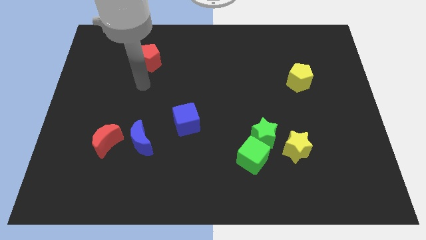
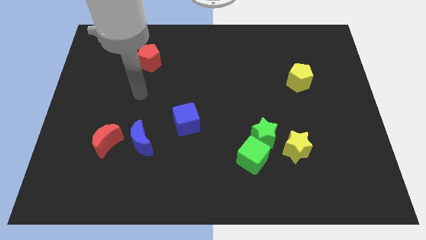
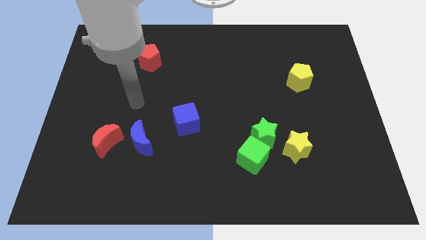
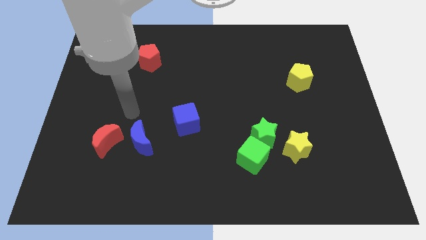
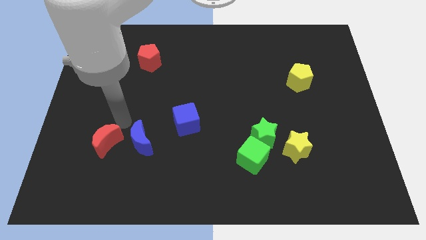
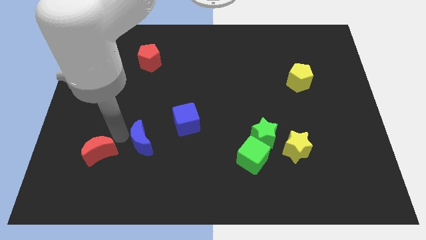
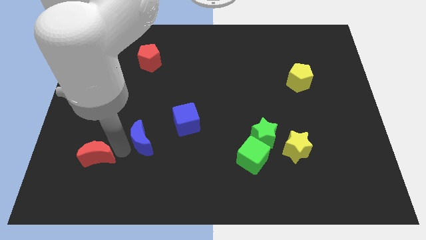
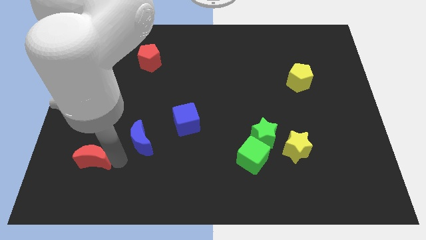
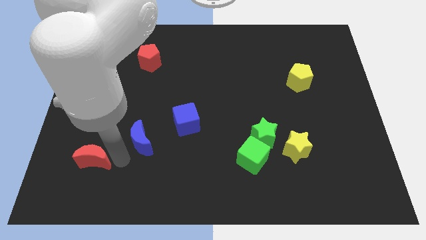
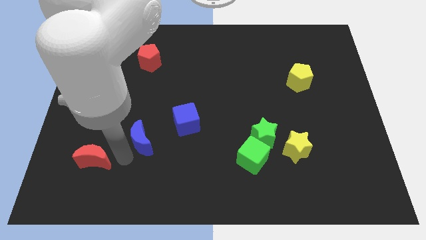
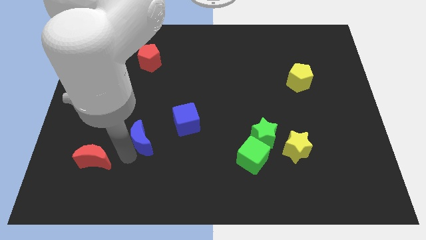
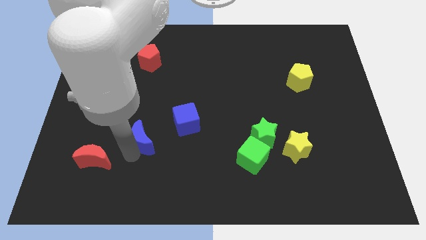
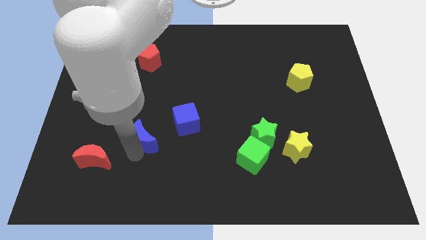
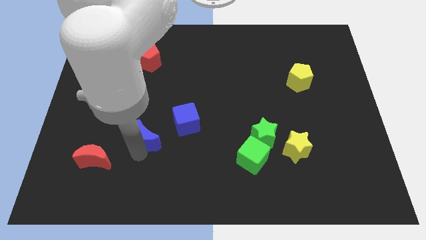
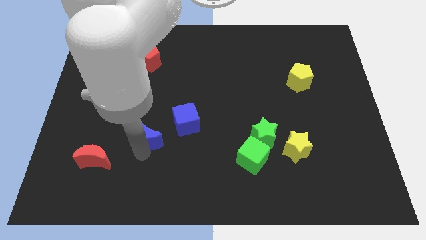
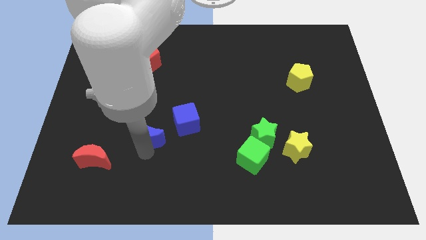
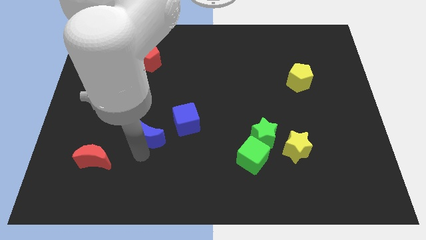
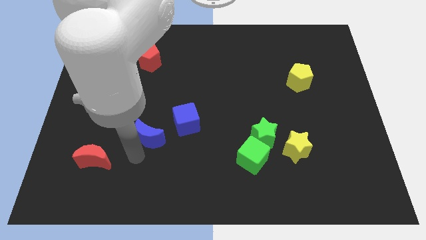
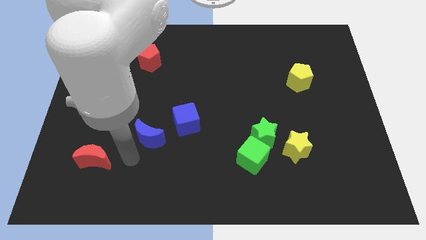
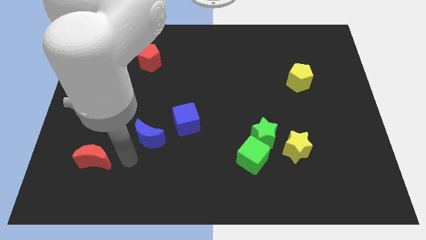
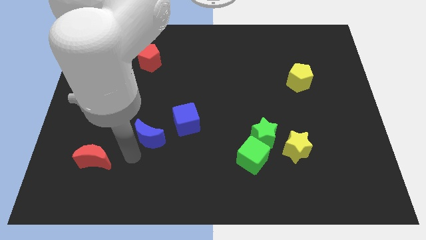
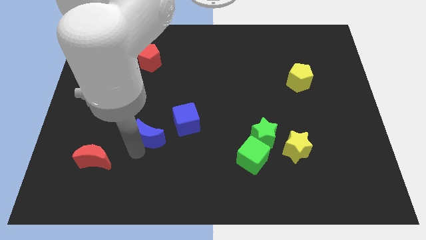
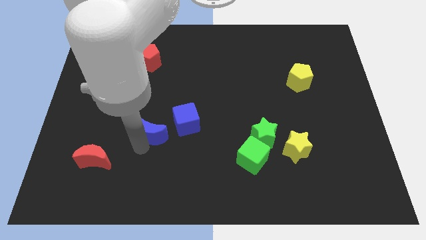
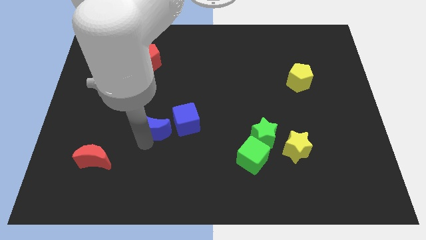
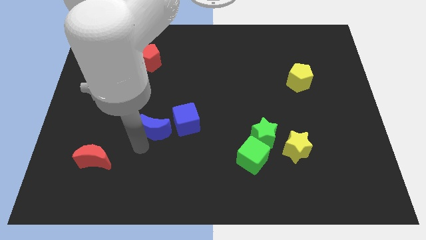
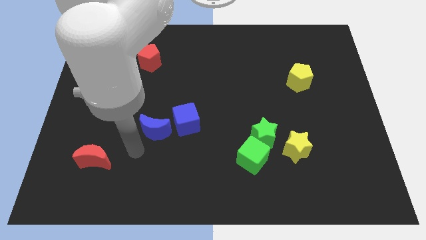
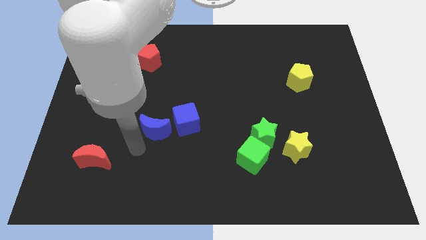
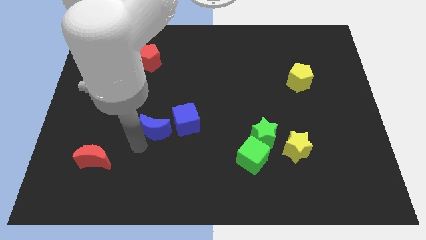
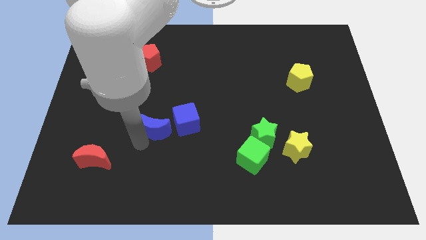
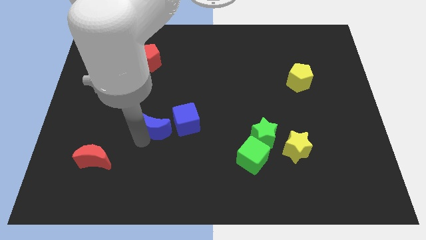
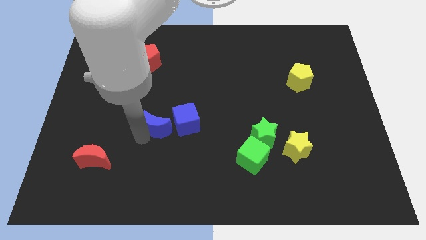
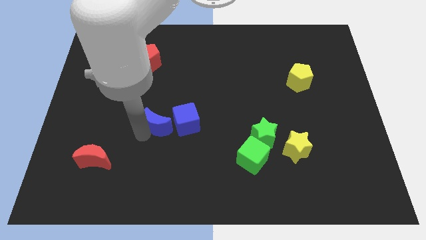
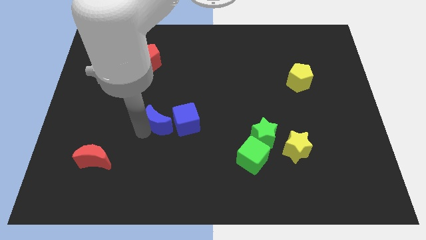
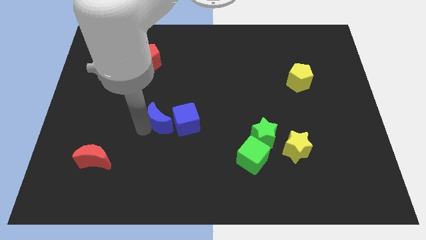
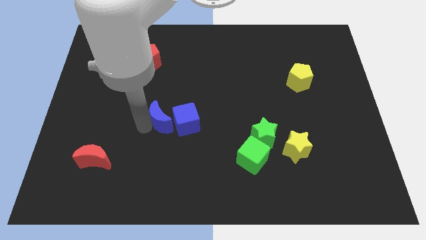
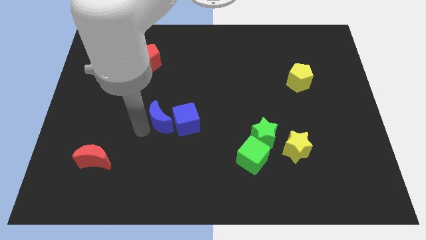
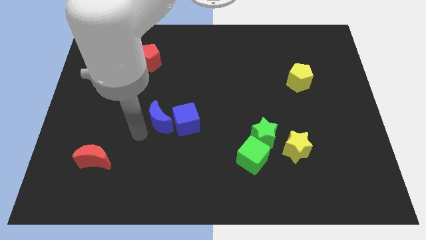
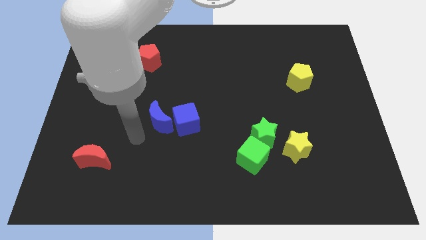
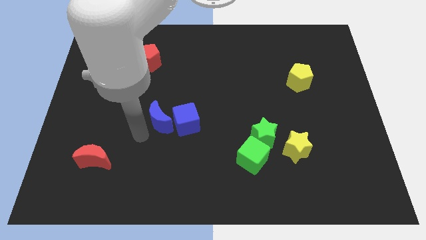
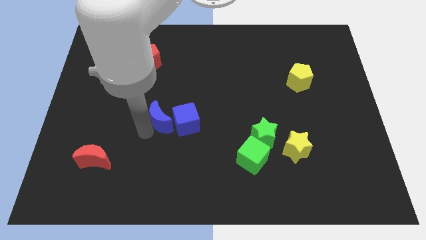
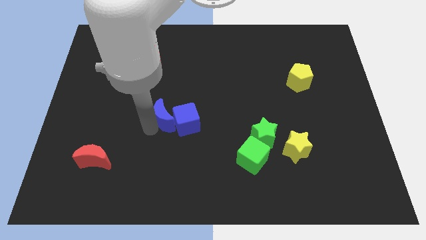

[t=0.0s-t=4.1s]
slightly slide the blue moon up and to the right diagonally

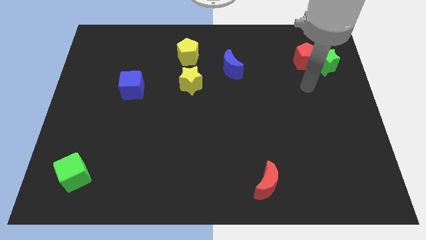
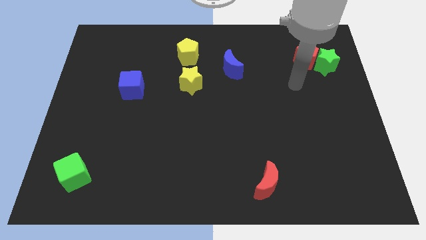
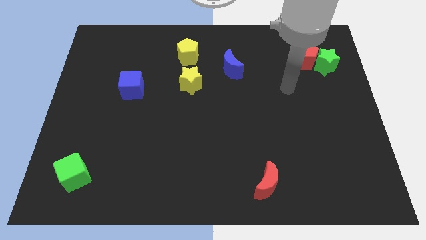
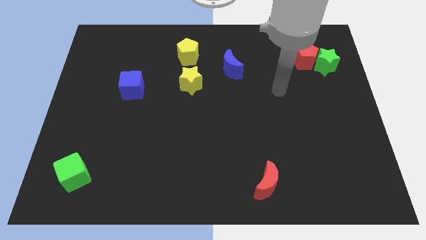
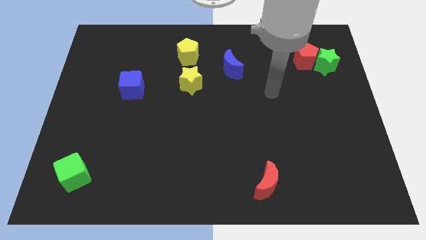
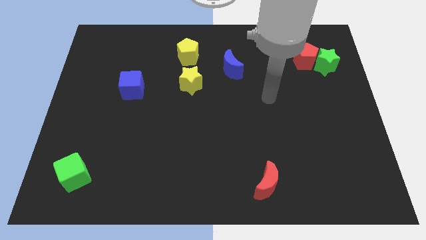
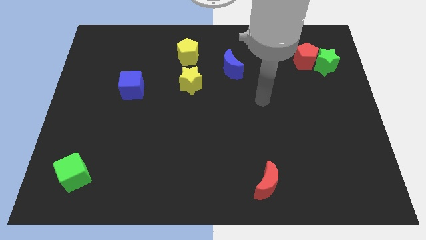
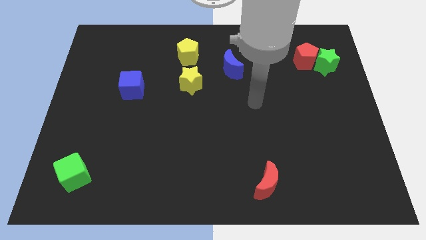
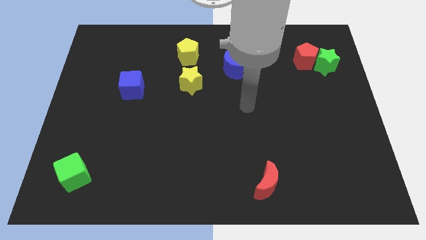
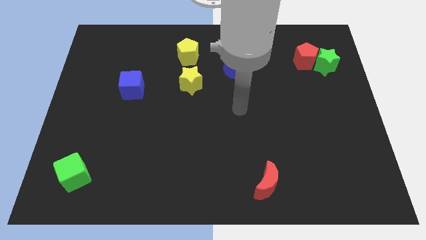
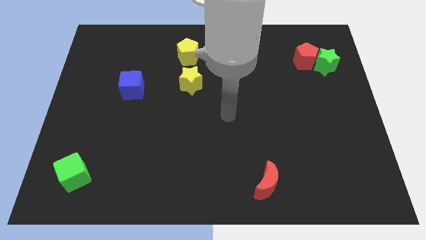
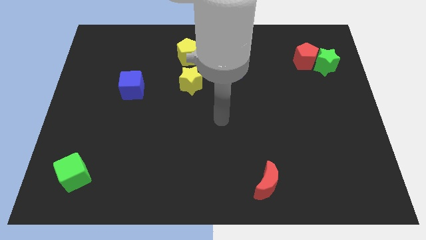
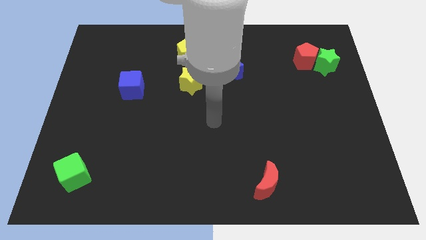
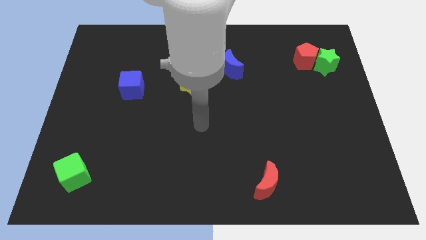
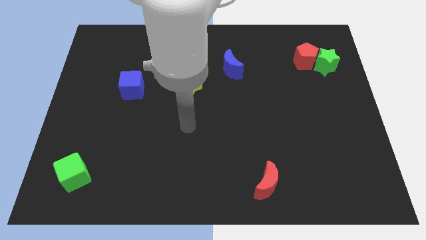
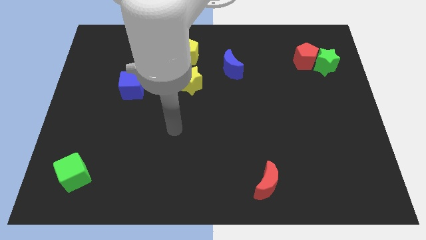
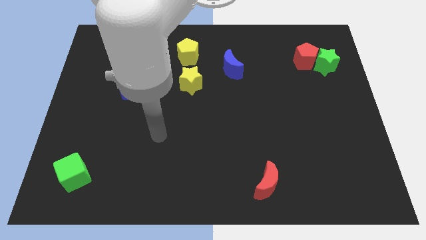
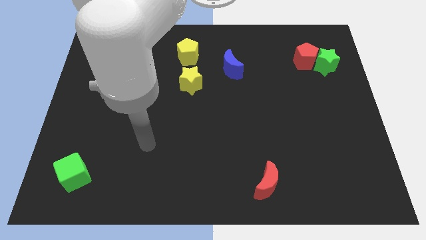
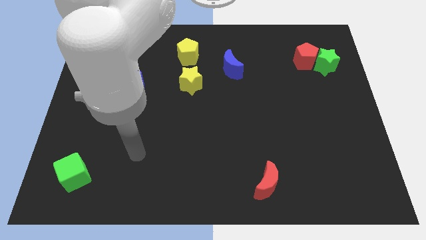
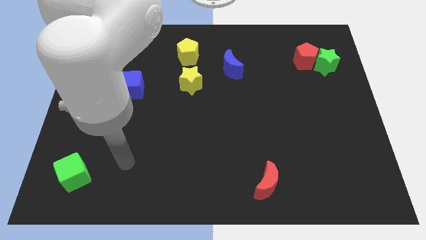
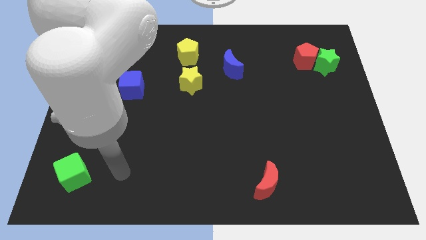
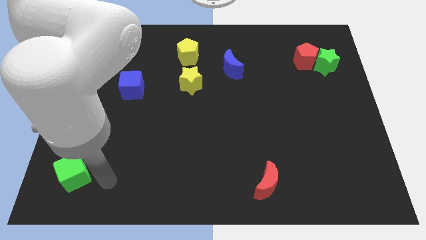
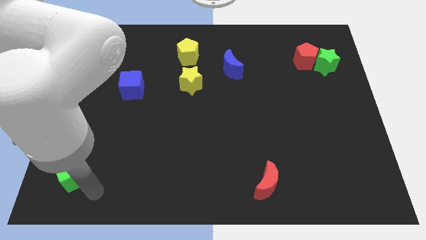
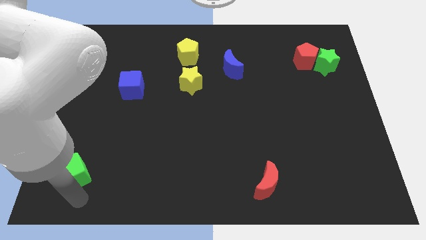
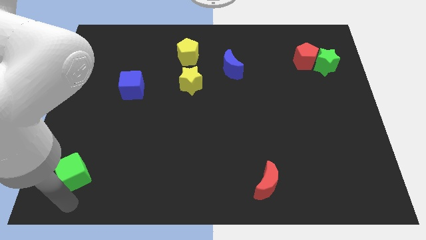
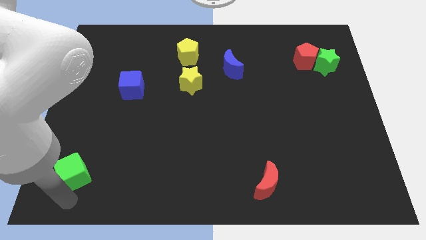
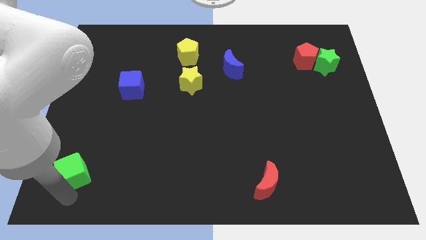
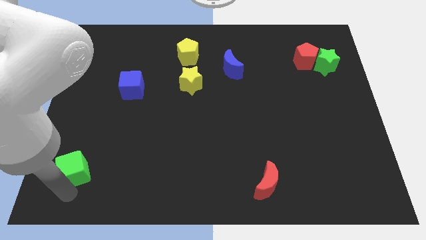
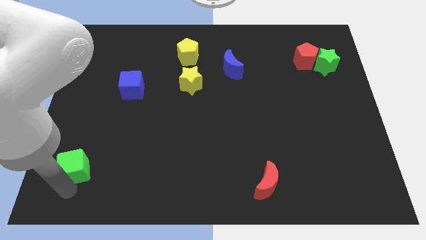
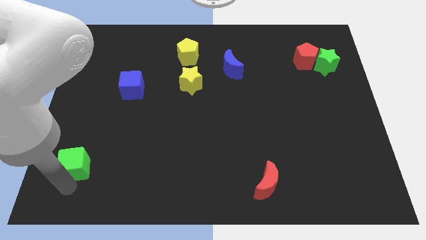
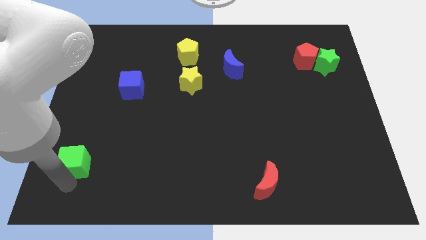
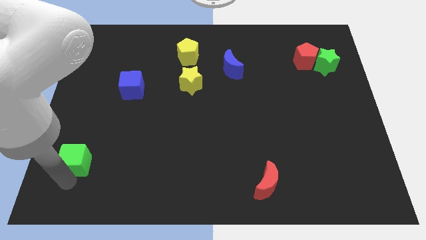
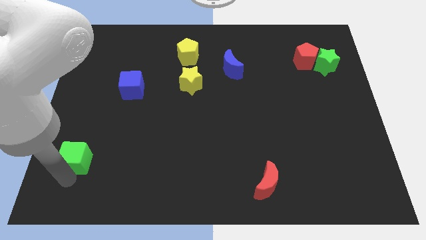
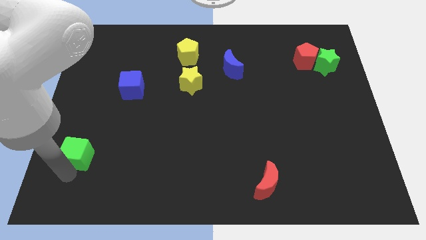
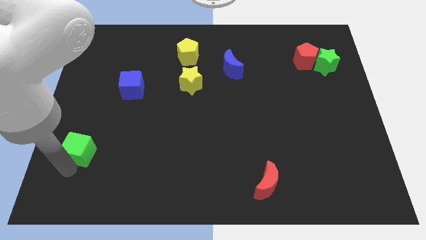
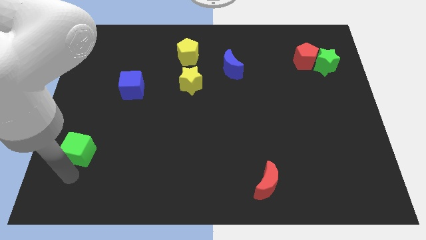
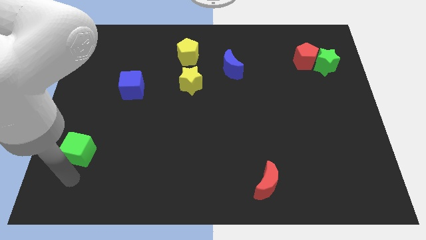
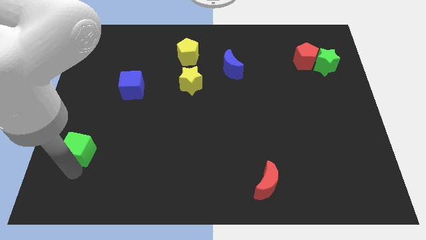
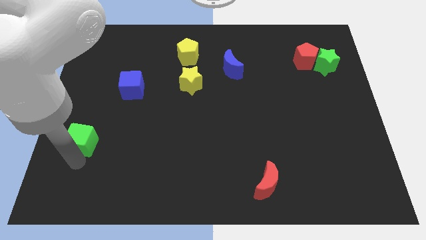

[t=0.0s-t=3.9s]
slightly push the green cube up
